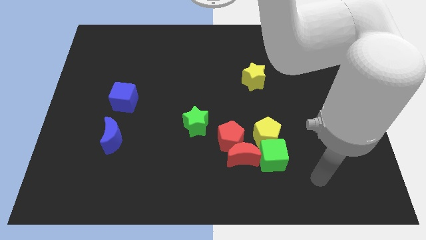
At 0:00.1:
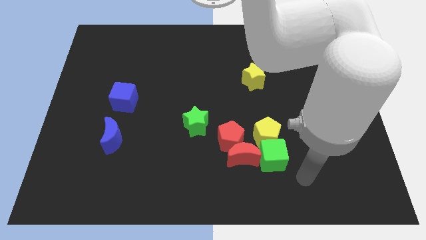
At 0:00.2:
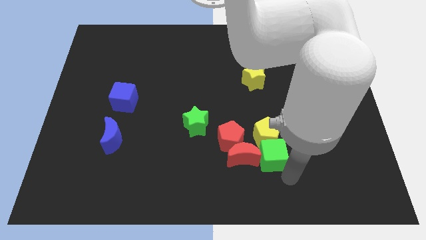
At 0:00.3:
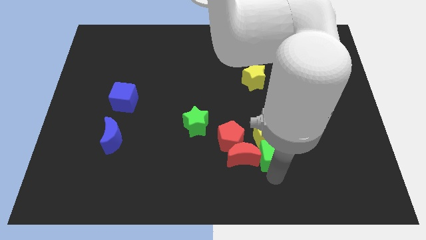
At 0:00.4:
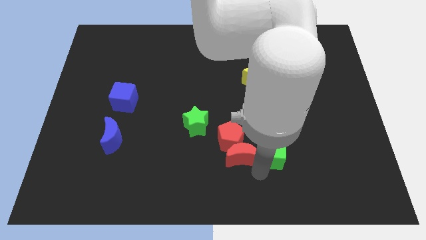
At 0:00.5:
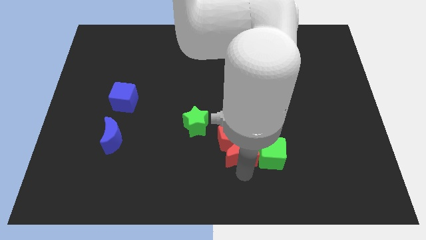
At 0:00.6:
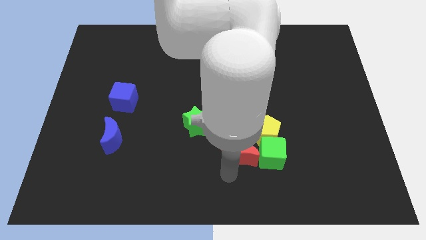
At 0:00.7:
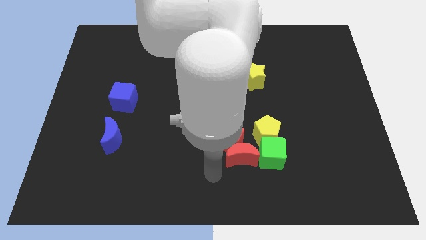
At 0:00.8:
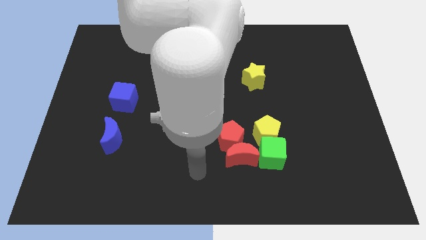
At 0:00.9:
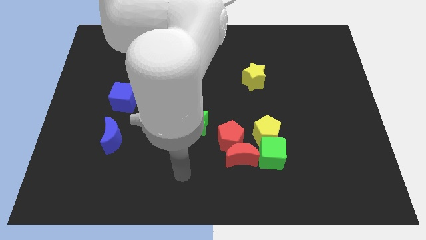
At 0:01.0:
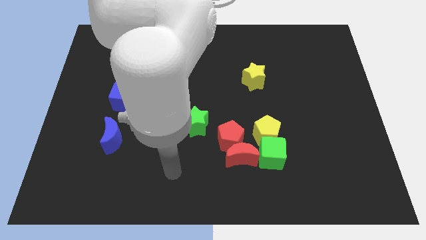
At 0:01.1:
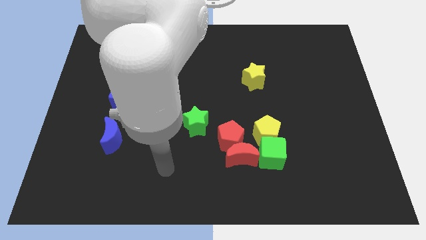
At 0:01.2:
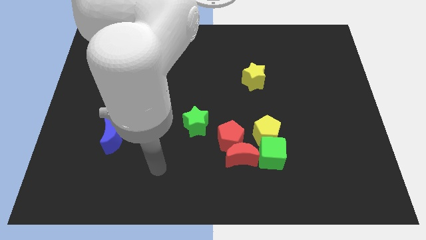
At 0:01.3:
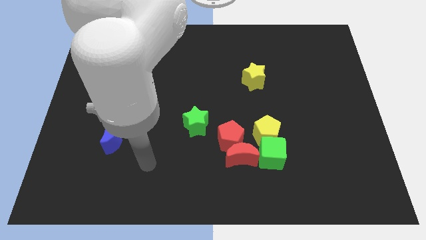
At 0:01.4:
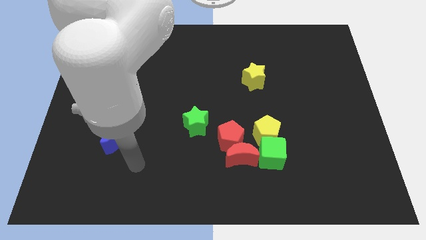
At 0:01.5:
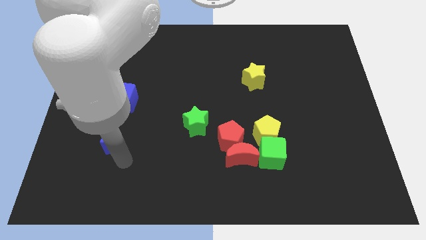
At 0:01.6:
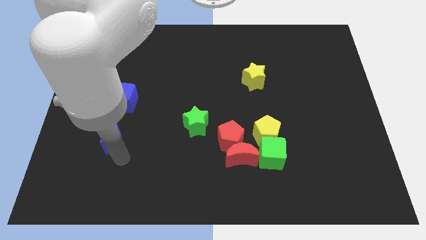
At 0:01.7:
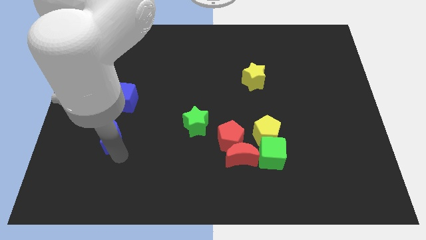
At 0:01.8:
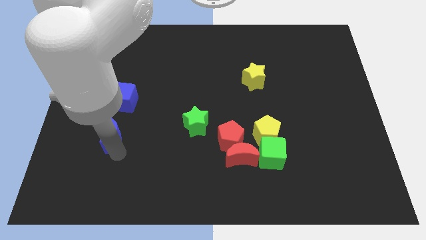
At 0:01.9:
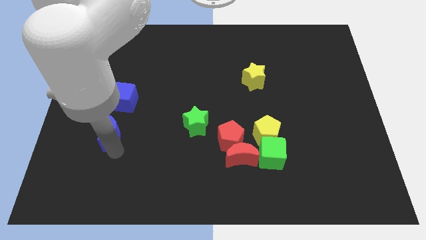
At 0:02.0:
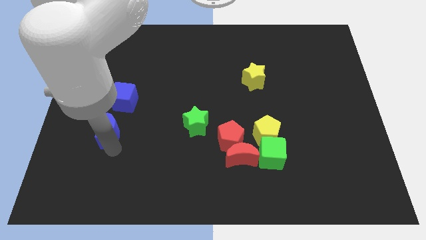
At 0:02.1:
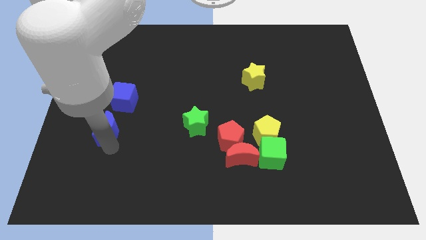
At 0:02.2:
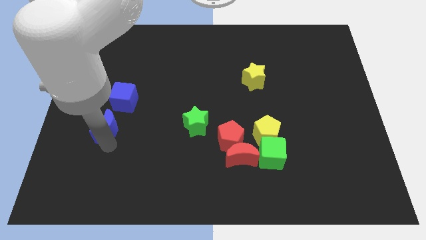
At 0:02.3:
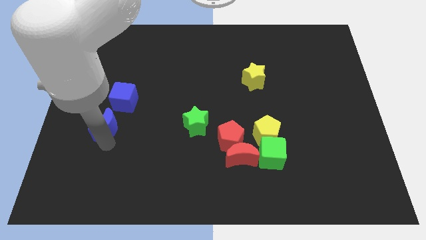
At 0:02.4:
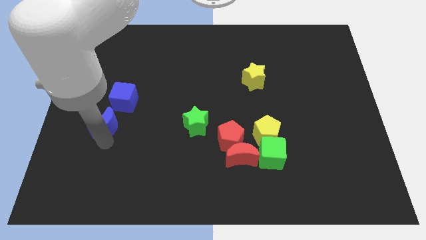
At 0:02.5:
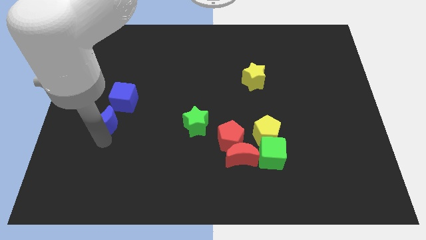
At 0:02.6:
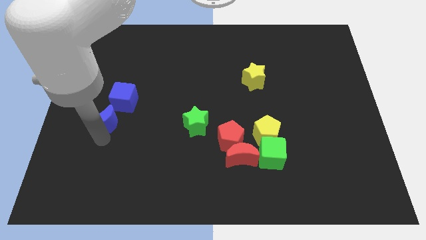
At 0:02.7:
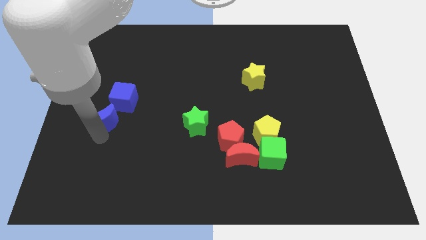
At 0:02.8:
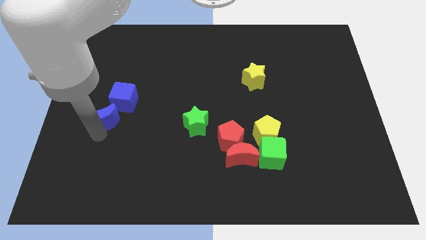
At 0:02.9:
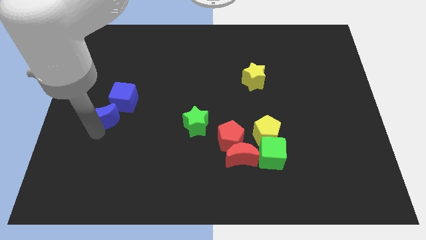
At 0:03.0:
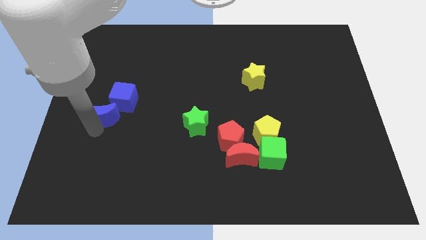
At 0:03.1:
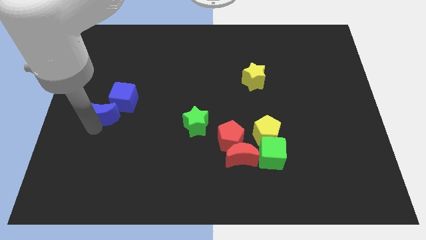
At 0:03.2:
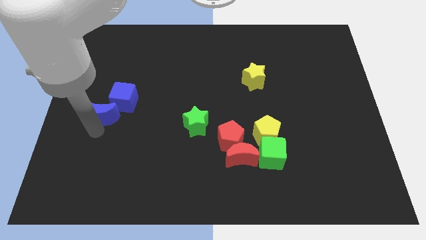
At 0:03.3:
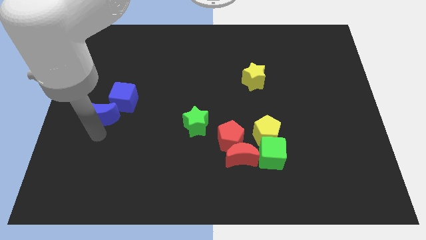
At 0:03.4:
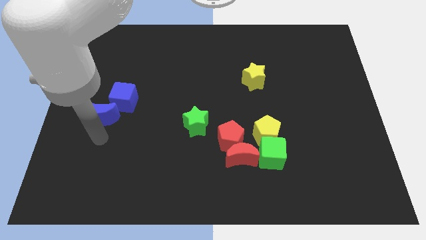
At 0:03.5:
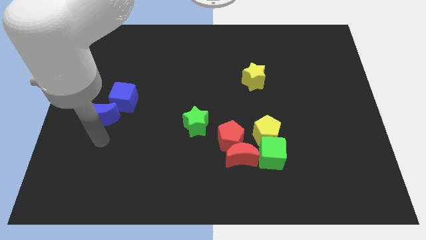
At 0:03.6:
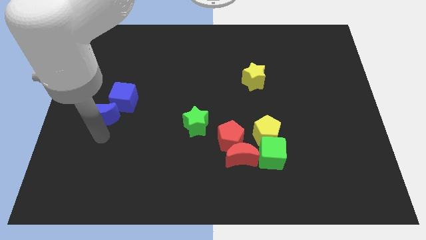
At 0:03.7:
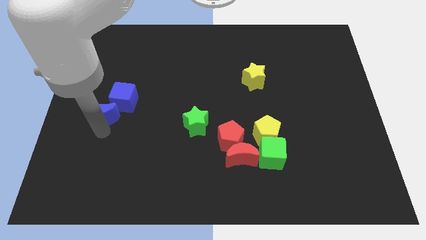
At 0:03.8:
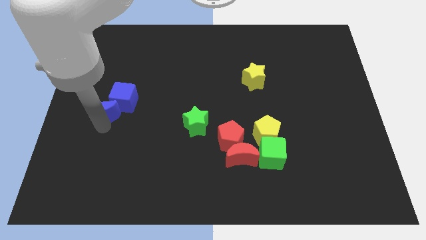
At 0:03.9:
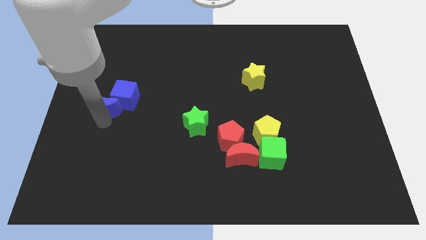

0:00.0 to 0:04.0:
push the blue moon a bit upwards

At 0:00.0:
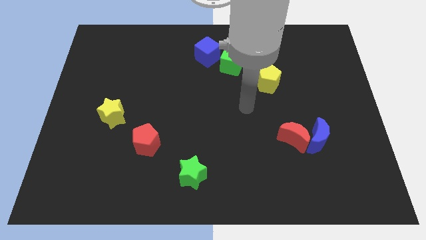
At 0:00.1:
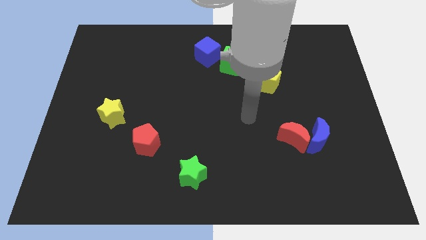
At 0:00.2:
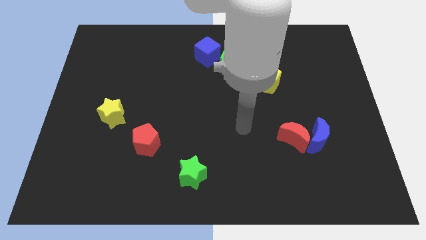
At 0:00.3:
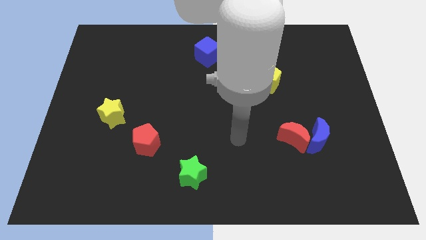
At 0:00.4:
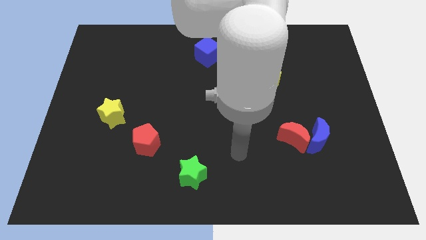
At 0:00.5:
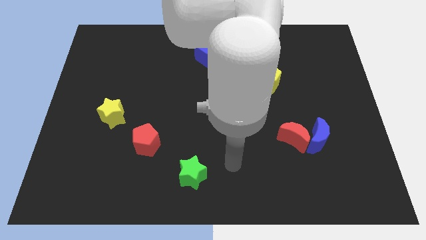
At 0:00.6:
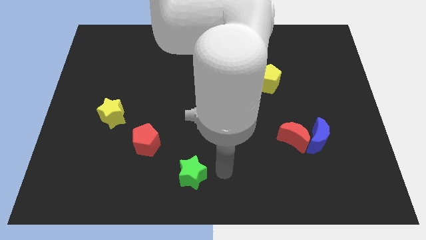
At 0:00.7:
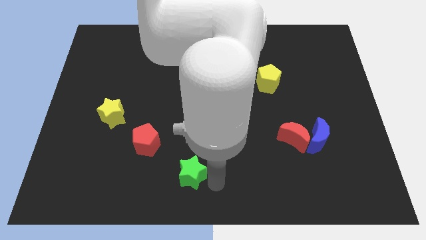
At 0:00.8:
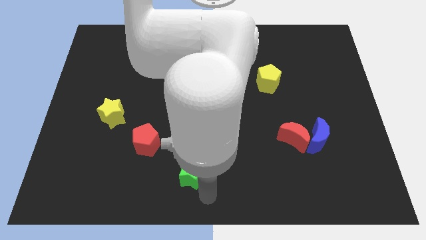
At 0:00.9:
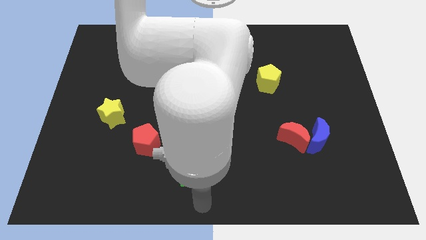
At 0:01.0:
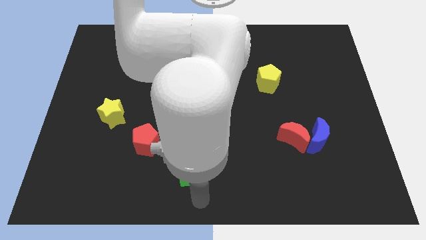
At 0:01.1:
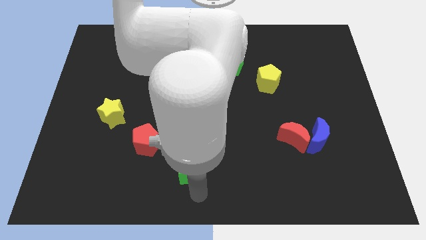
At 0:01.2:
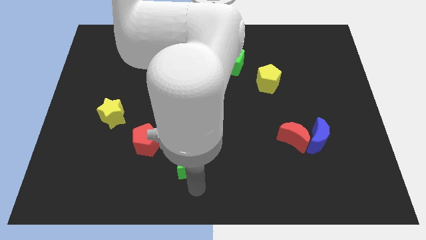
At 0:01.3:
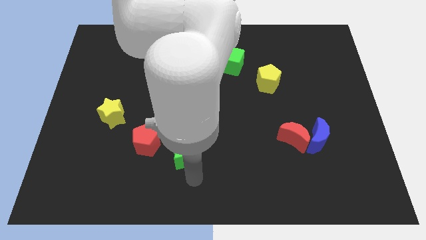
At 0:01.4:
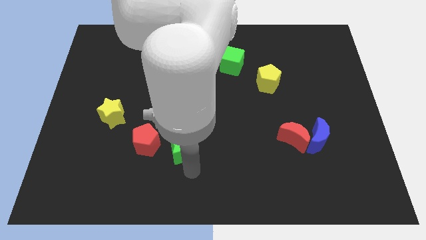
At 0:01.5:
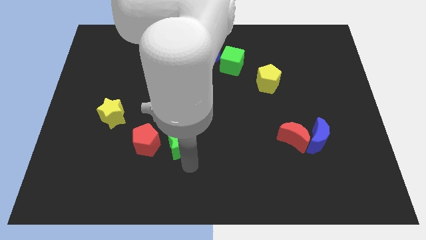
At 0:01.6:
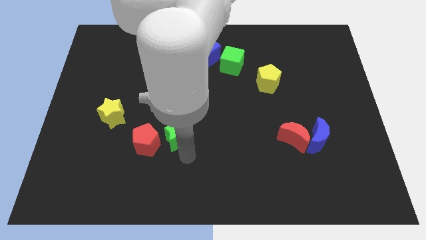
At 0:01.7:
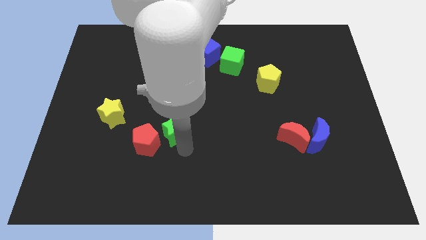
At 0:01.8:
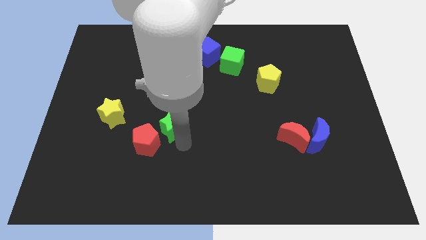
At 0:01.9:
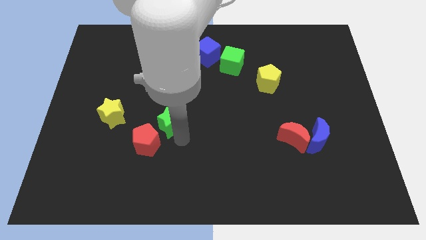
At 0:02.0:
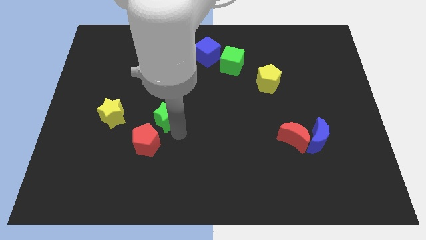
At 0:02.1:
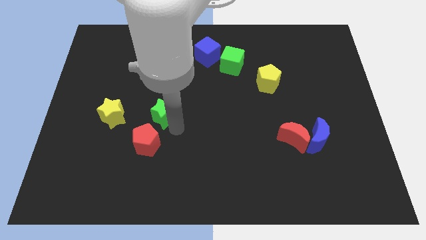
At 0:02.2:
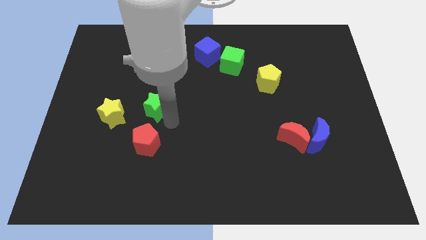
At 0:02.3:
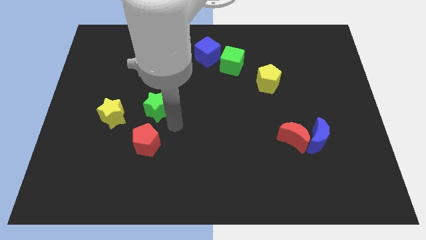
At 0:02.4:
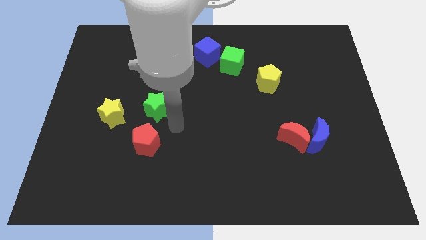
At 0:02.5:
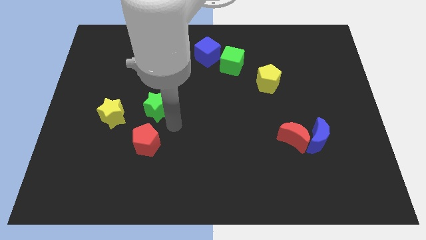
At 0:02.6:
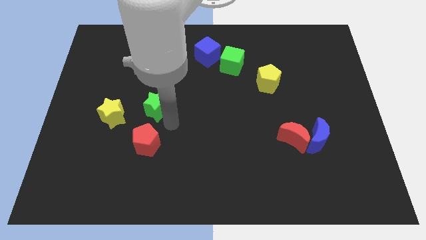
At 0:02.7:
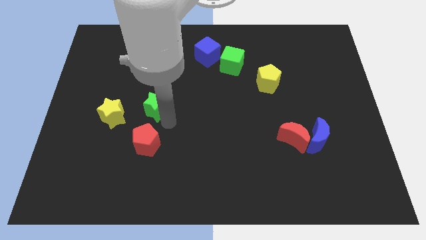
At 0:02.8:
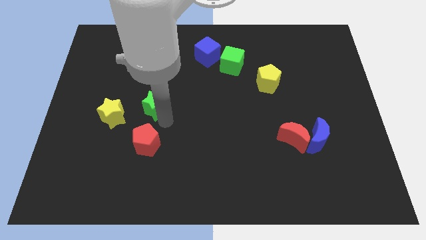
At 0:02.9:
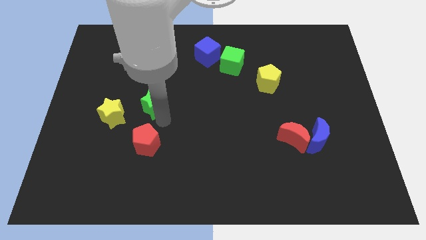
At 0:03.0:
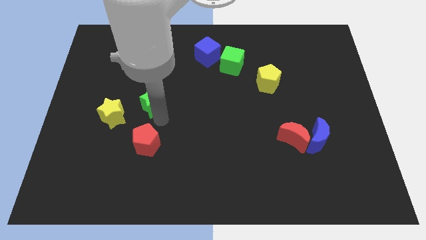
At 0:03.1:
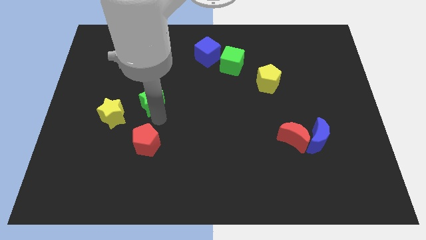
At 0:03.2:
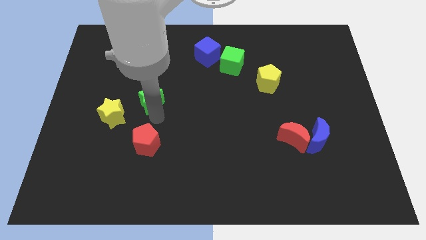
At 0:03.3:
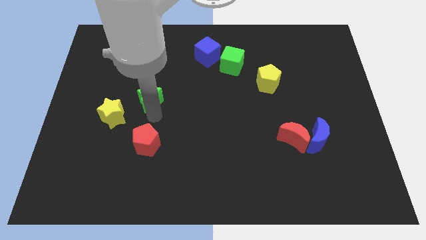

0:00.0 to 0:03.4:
slide the green star up and then to the left

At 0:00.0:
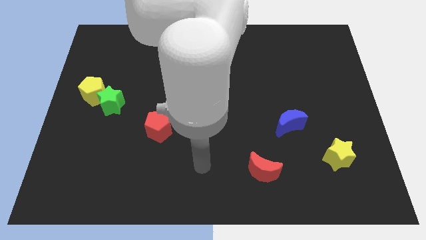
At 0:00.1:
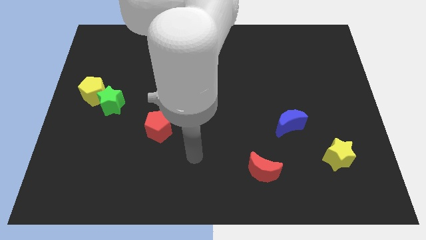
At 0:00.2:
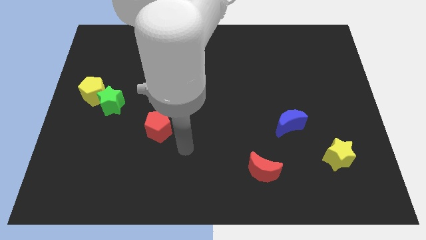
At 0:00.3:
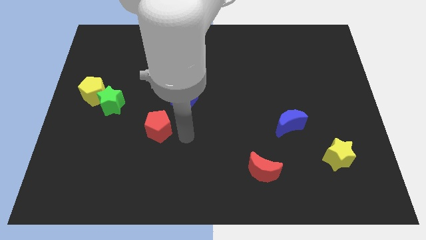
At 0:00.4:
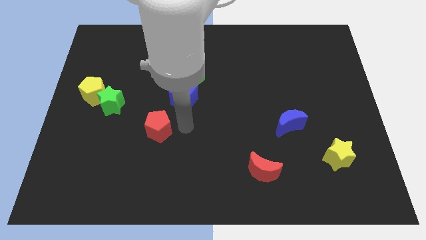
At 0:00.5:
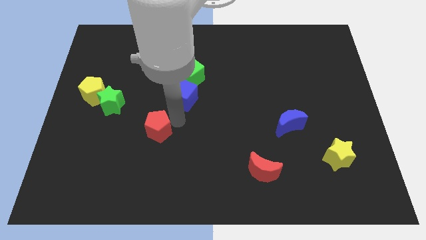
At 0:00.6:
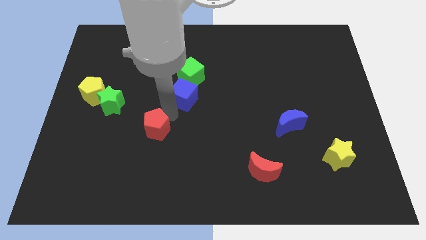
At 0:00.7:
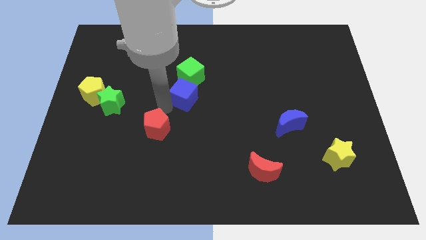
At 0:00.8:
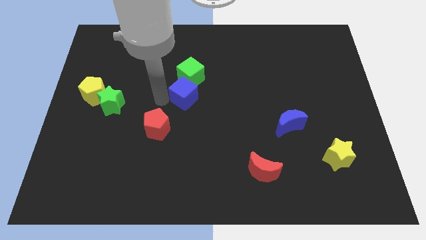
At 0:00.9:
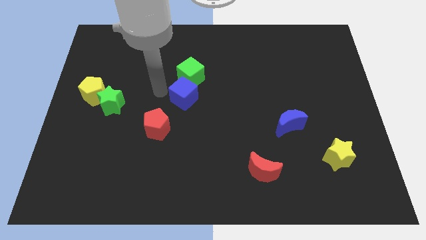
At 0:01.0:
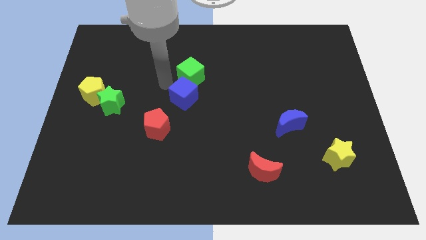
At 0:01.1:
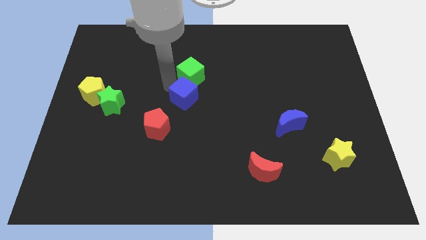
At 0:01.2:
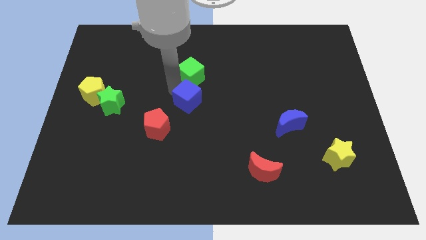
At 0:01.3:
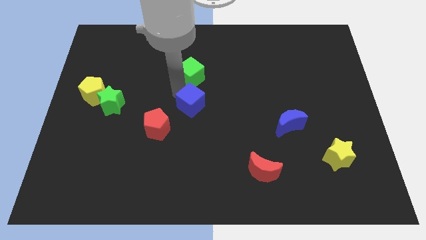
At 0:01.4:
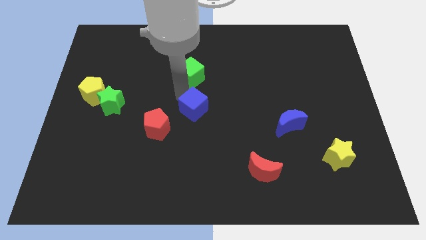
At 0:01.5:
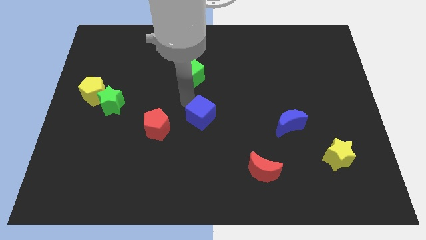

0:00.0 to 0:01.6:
slightly slide the blue cube down and then right
